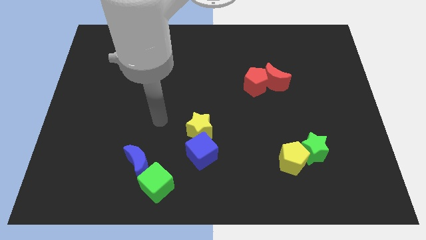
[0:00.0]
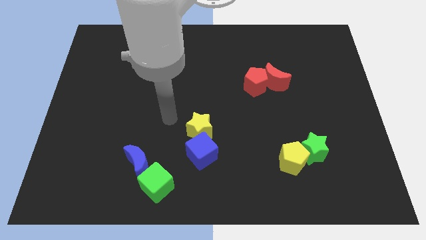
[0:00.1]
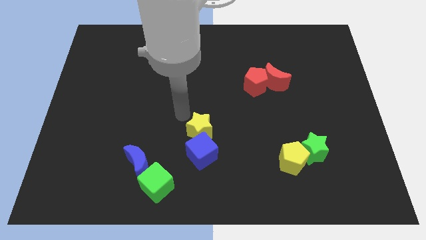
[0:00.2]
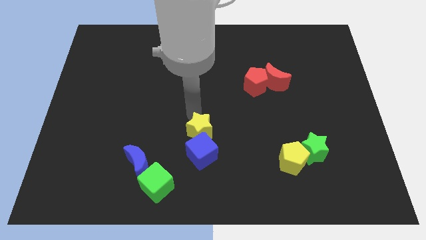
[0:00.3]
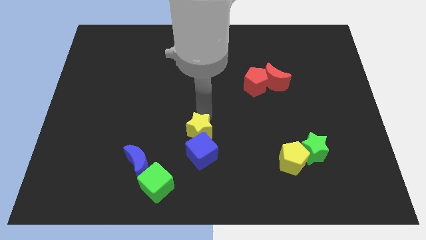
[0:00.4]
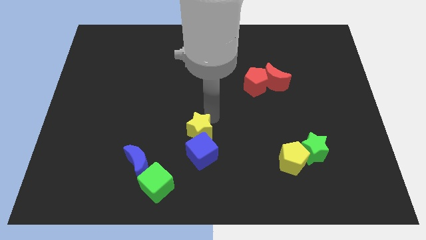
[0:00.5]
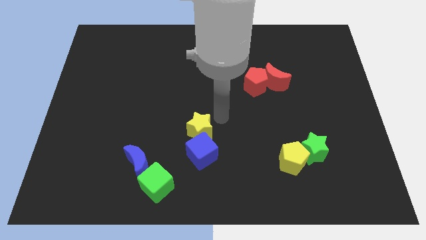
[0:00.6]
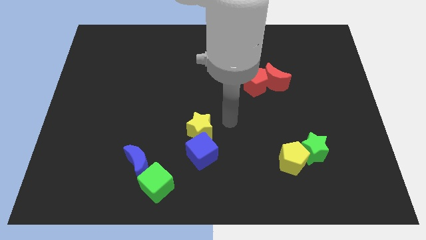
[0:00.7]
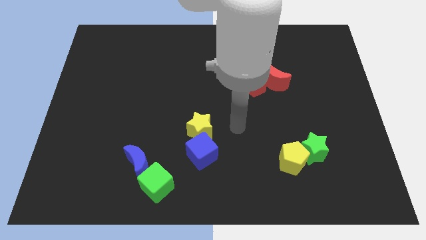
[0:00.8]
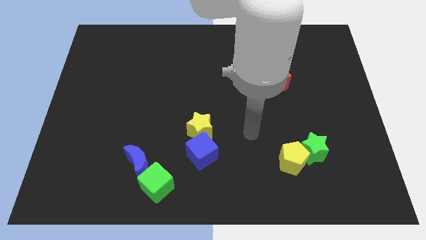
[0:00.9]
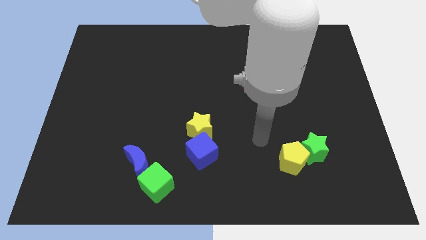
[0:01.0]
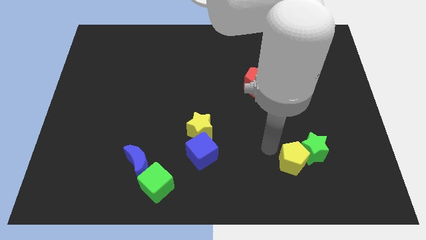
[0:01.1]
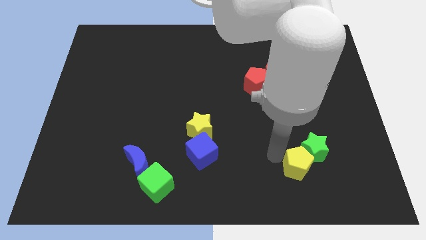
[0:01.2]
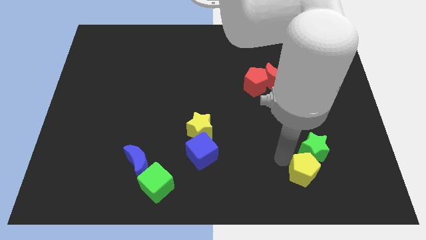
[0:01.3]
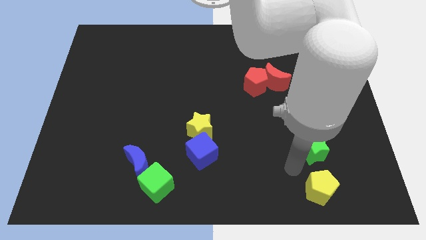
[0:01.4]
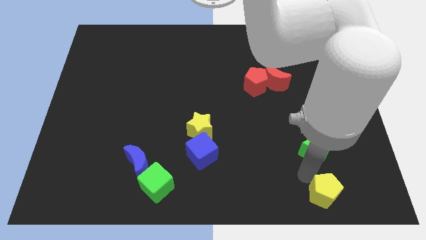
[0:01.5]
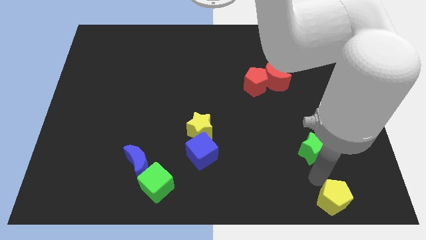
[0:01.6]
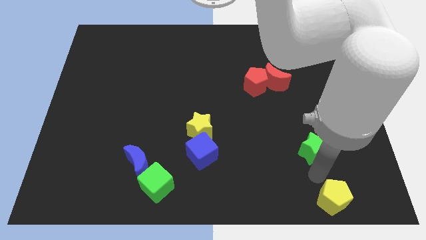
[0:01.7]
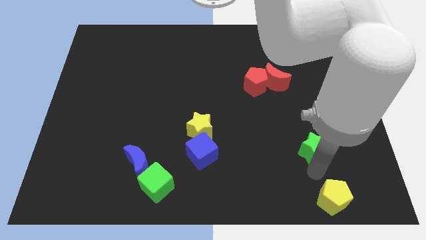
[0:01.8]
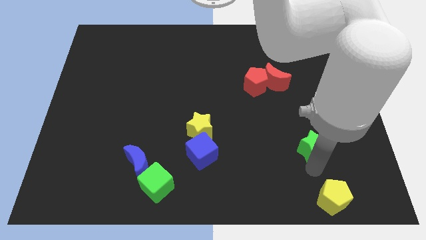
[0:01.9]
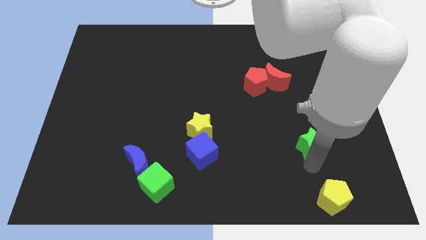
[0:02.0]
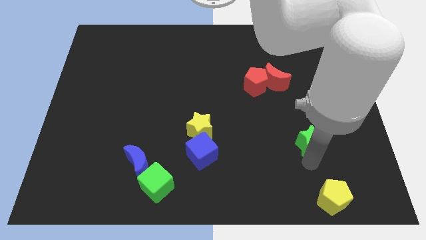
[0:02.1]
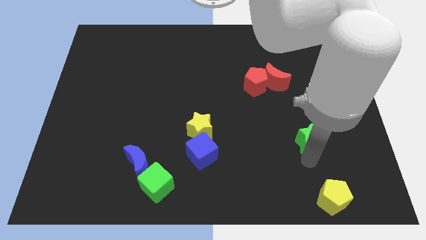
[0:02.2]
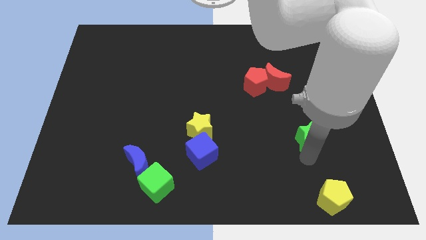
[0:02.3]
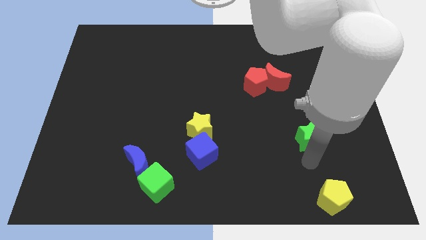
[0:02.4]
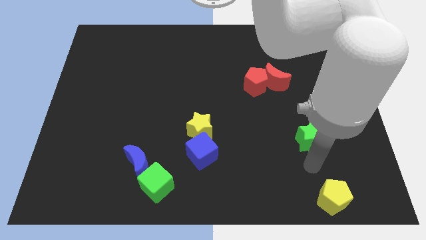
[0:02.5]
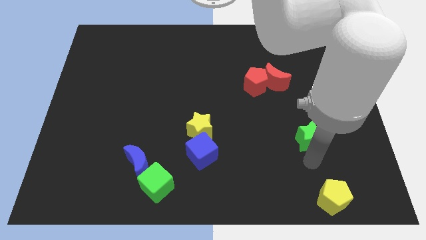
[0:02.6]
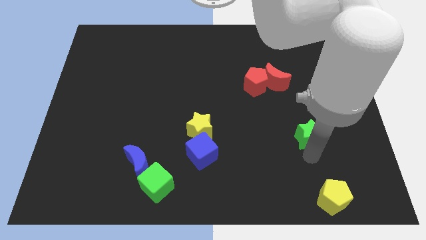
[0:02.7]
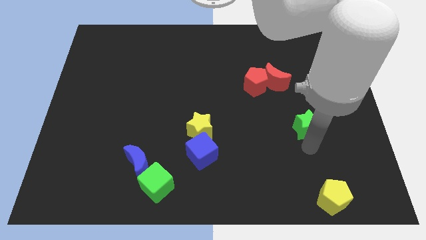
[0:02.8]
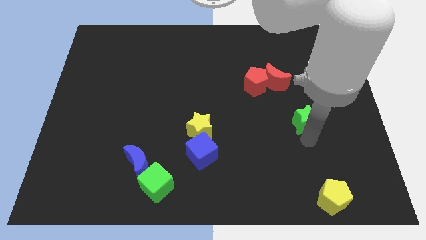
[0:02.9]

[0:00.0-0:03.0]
push the green star upwards slightly

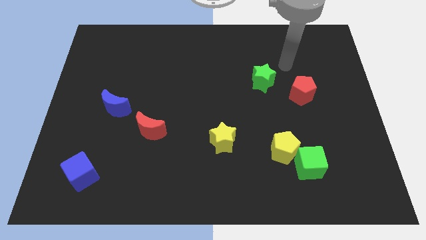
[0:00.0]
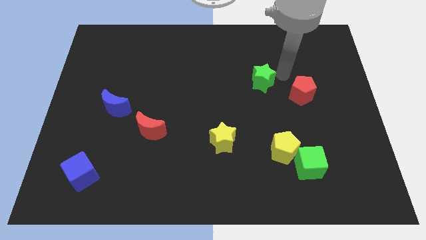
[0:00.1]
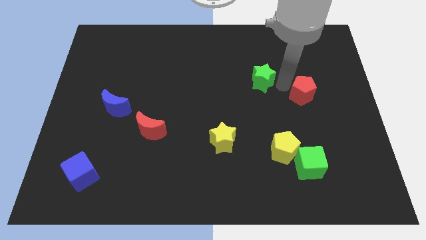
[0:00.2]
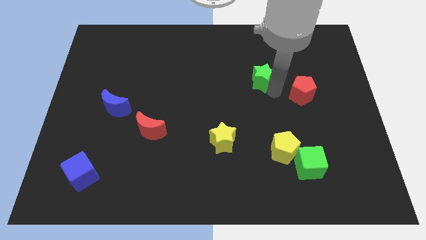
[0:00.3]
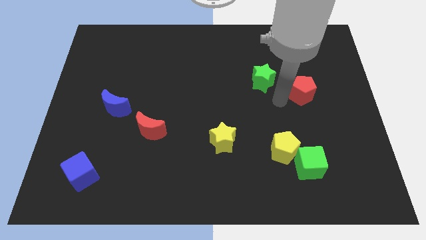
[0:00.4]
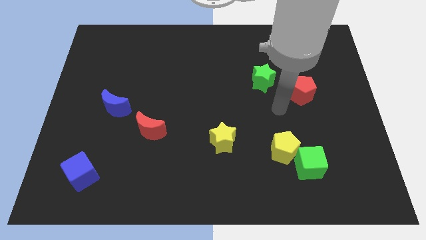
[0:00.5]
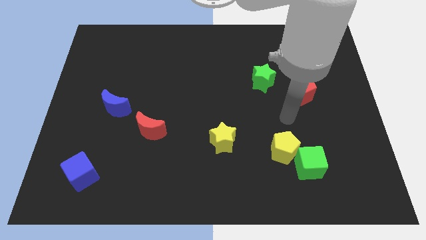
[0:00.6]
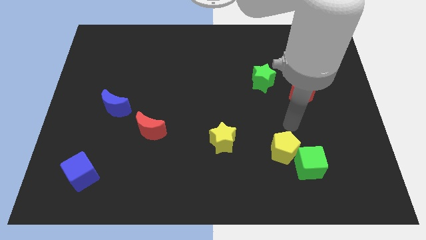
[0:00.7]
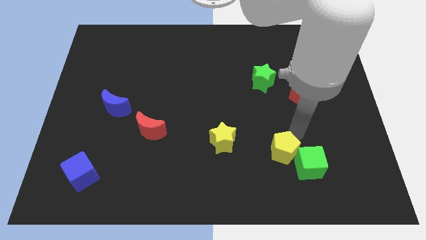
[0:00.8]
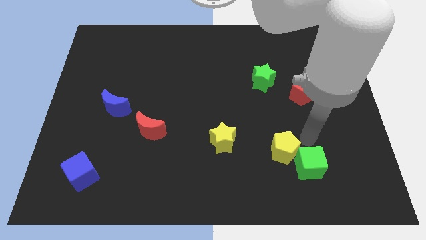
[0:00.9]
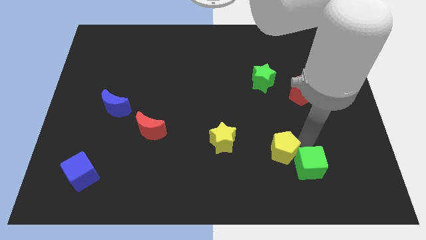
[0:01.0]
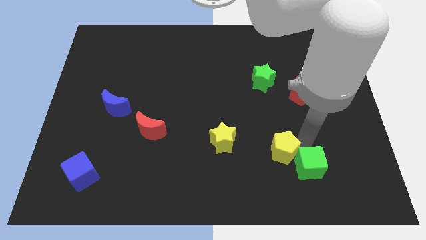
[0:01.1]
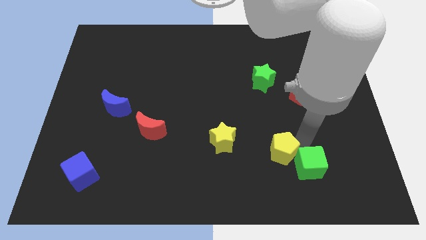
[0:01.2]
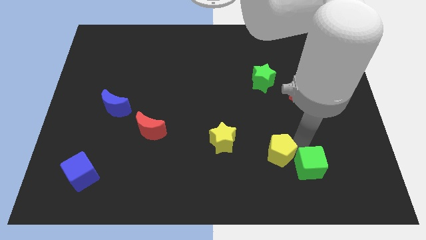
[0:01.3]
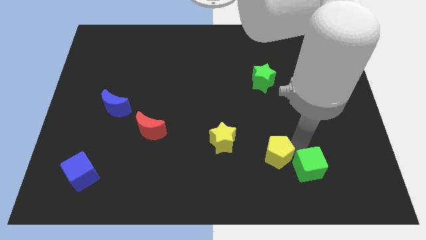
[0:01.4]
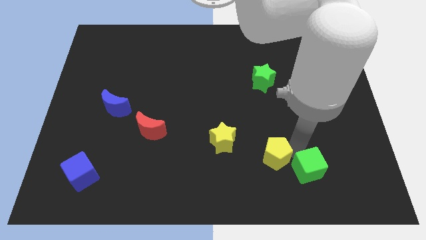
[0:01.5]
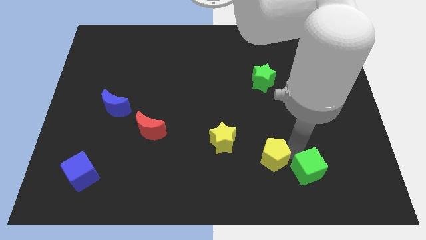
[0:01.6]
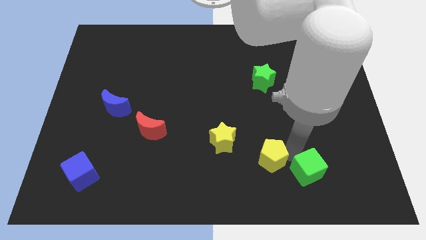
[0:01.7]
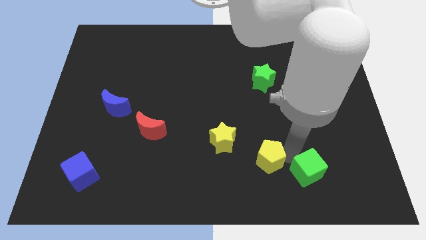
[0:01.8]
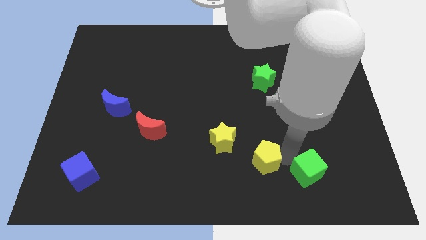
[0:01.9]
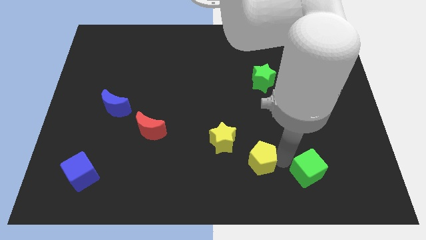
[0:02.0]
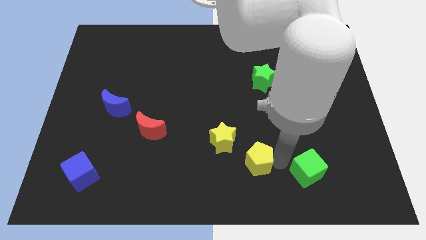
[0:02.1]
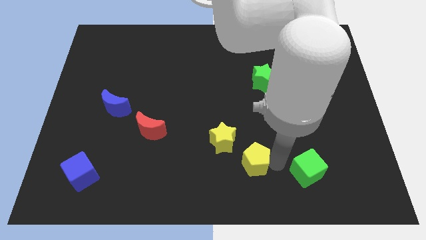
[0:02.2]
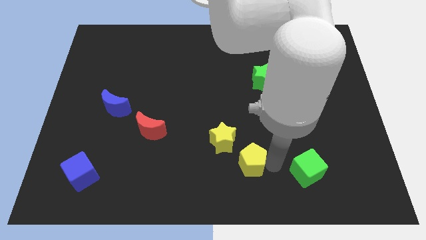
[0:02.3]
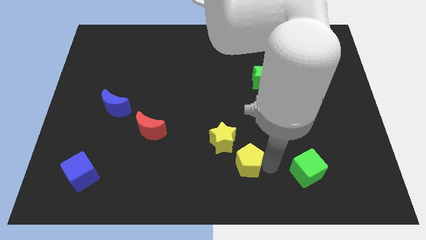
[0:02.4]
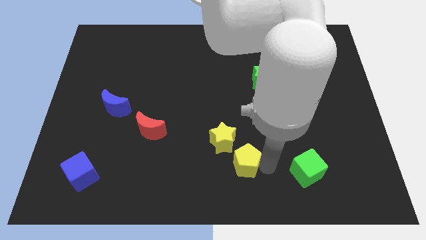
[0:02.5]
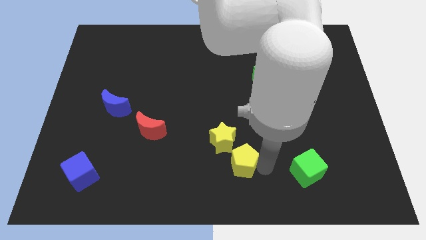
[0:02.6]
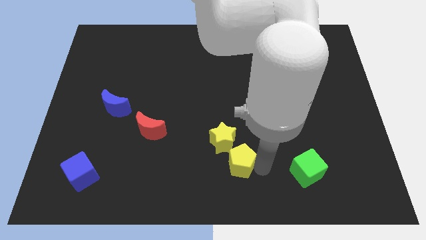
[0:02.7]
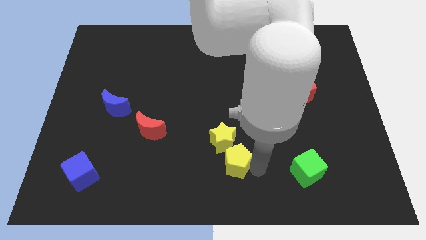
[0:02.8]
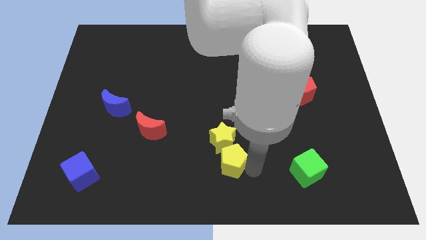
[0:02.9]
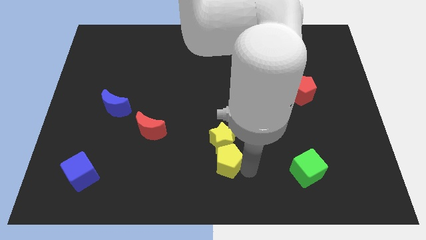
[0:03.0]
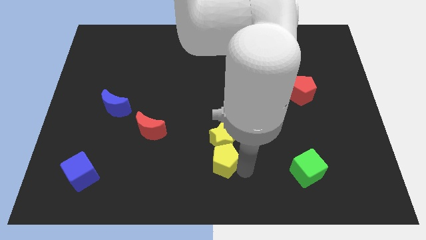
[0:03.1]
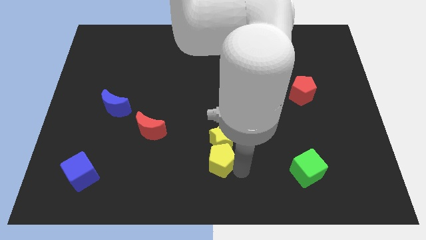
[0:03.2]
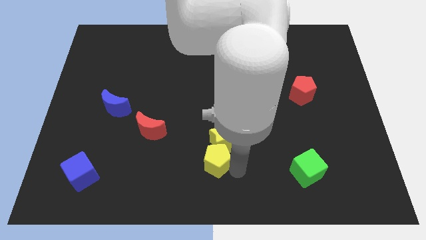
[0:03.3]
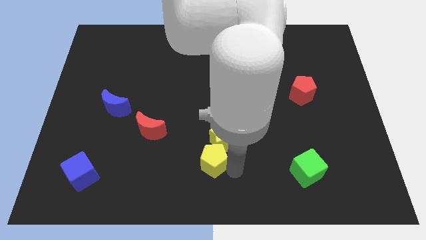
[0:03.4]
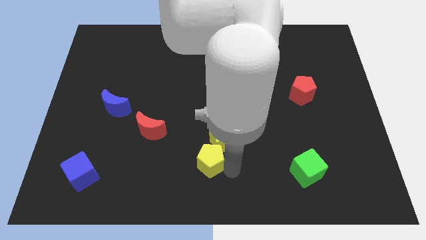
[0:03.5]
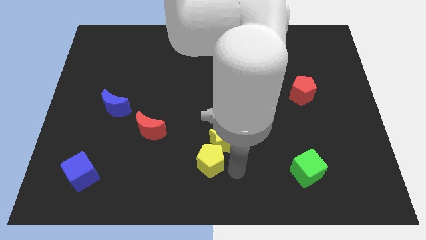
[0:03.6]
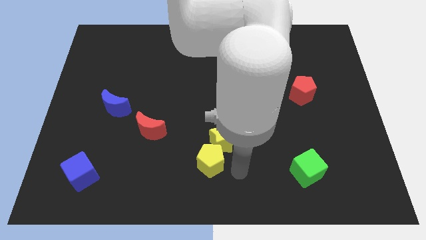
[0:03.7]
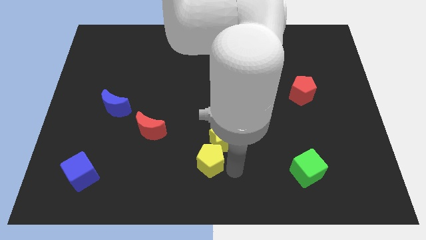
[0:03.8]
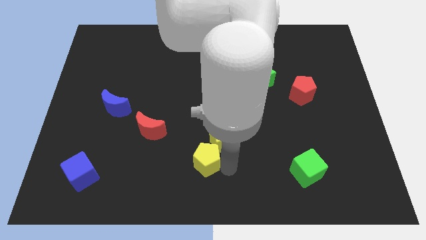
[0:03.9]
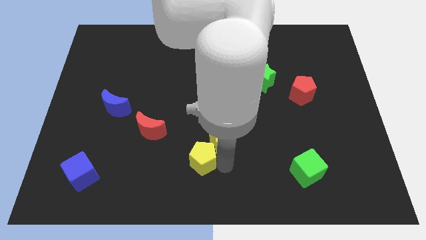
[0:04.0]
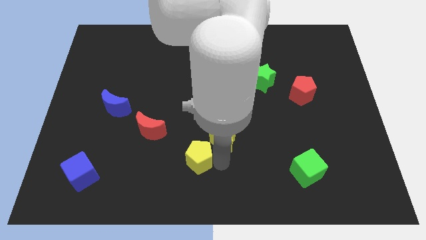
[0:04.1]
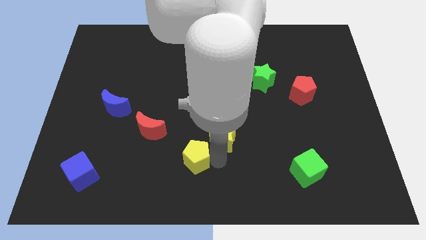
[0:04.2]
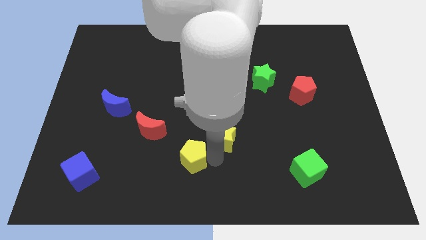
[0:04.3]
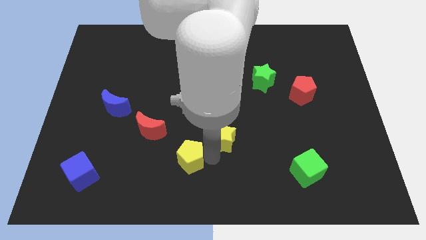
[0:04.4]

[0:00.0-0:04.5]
slide the yellow pentagon to the left

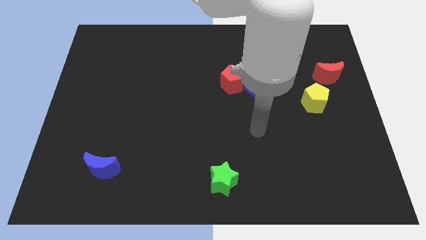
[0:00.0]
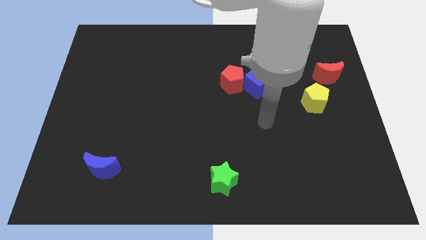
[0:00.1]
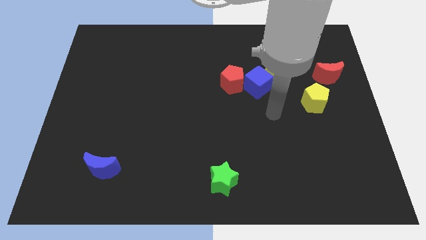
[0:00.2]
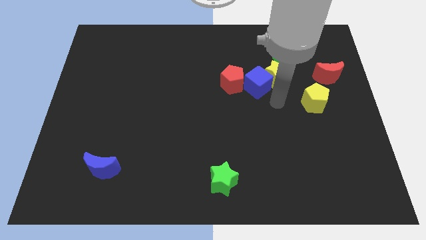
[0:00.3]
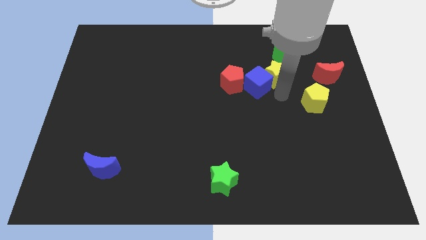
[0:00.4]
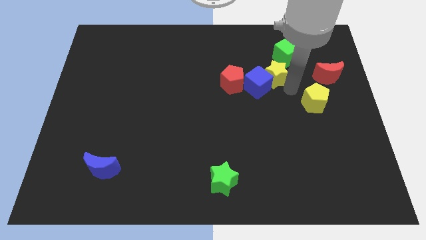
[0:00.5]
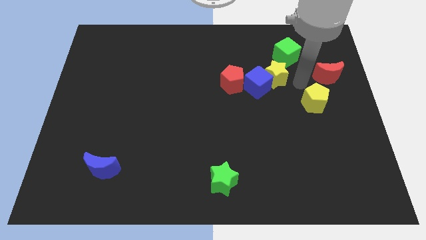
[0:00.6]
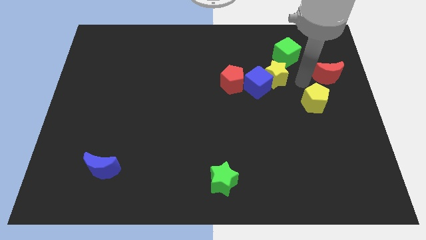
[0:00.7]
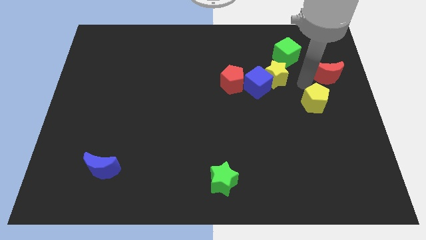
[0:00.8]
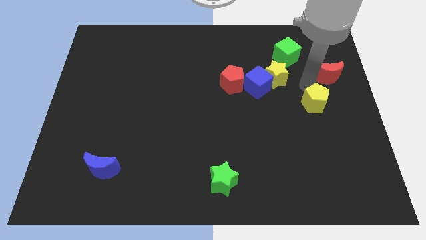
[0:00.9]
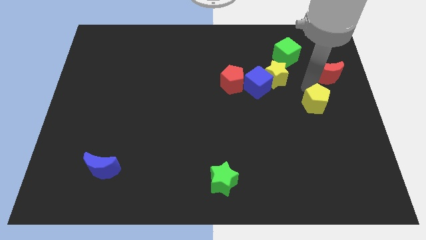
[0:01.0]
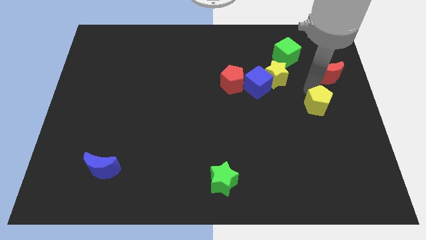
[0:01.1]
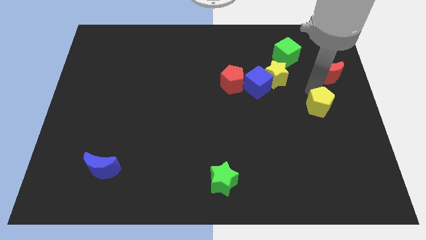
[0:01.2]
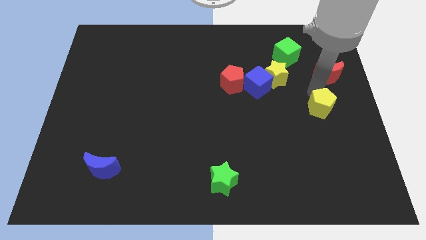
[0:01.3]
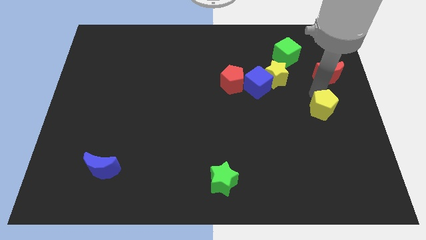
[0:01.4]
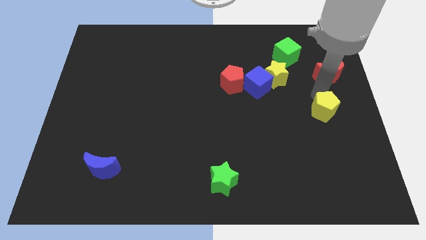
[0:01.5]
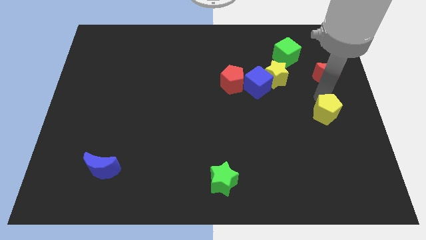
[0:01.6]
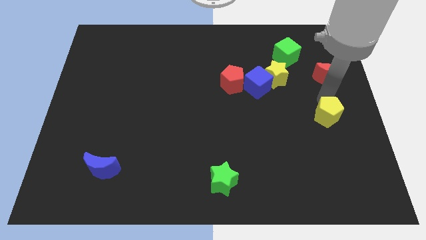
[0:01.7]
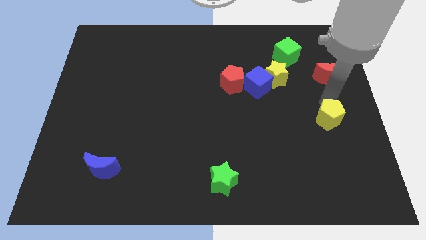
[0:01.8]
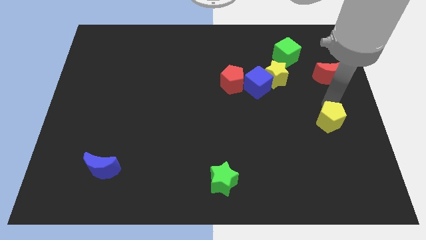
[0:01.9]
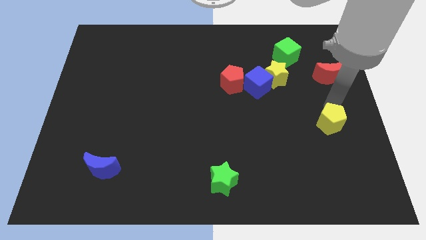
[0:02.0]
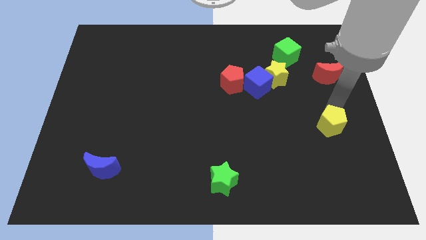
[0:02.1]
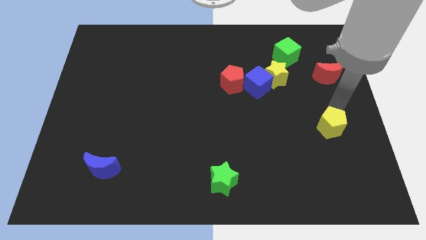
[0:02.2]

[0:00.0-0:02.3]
move the yellow pentagon downwards somewhat
